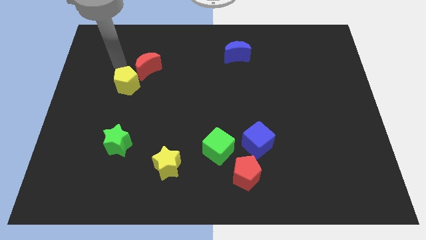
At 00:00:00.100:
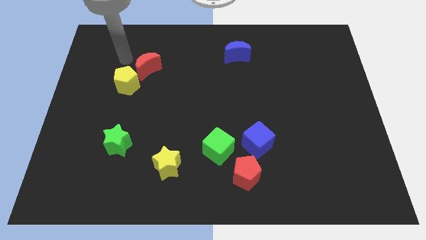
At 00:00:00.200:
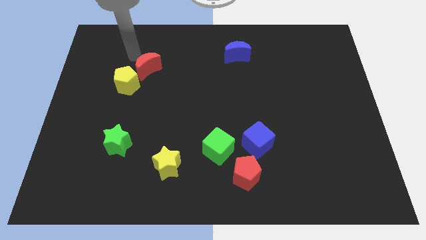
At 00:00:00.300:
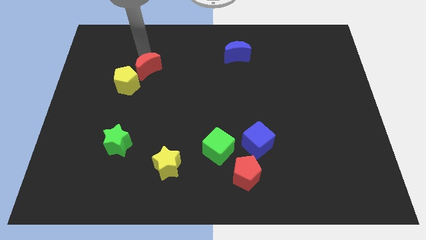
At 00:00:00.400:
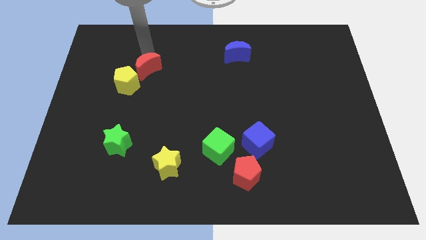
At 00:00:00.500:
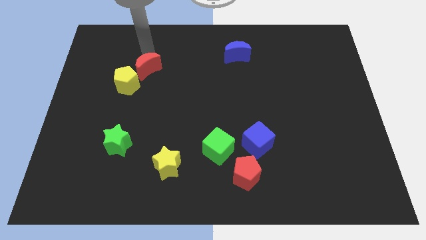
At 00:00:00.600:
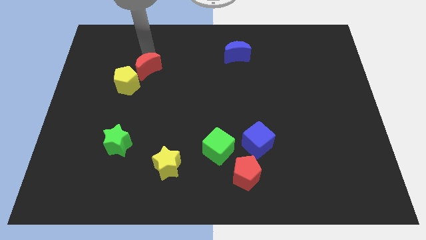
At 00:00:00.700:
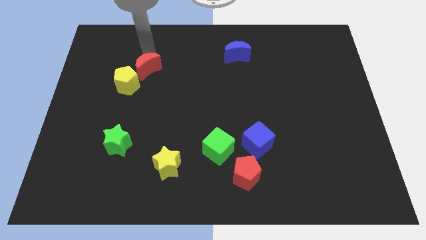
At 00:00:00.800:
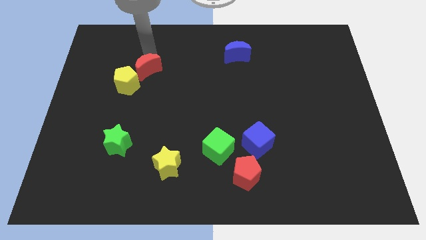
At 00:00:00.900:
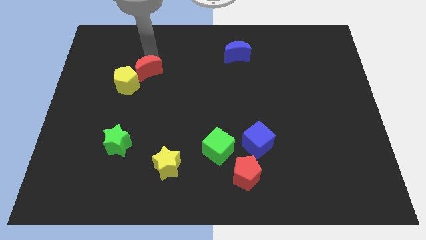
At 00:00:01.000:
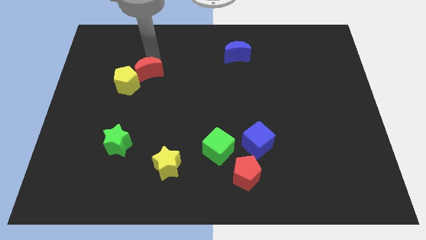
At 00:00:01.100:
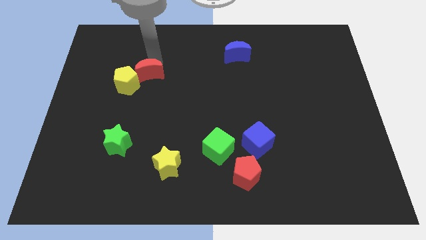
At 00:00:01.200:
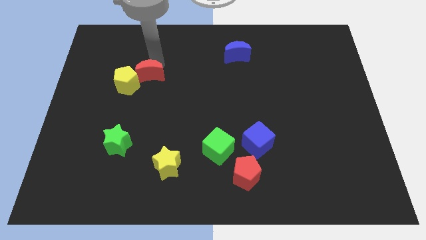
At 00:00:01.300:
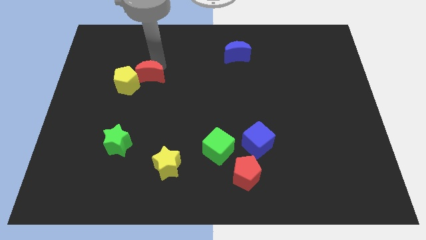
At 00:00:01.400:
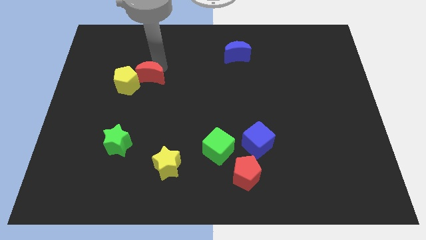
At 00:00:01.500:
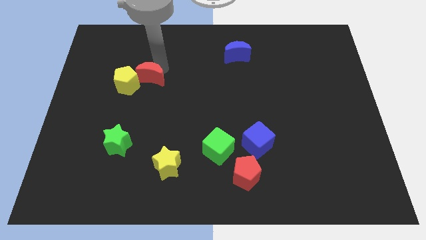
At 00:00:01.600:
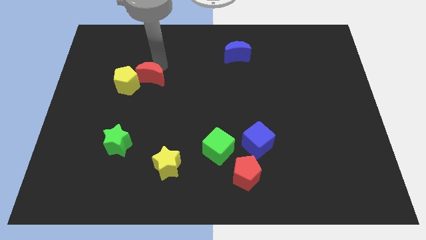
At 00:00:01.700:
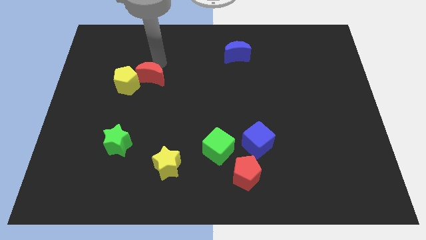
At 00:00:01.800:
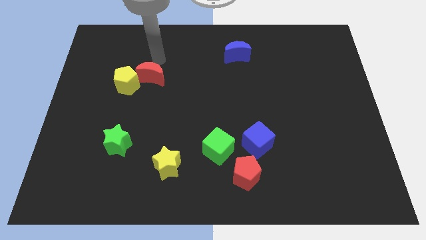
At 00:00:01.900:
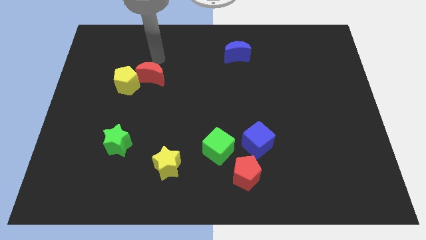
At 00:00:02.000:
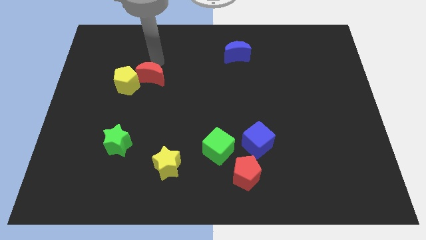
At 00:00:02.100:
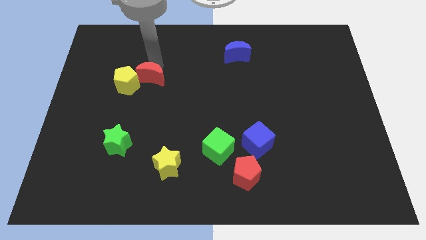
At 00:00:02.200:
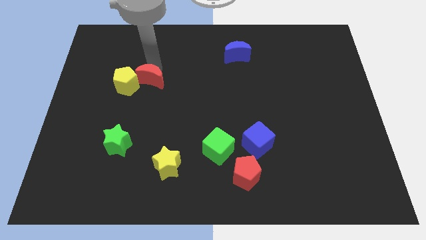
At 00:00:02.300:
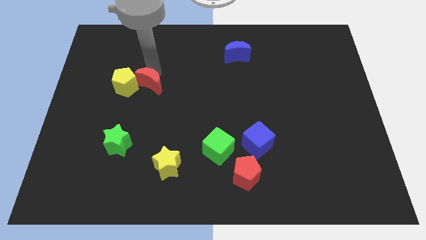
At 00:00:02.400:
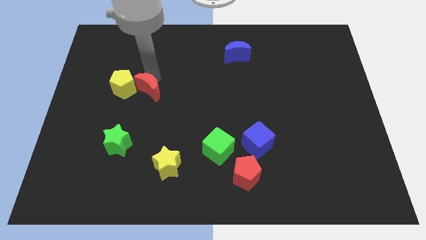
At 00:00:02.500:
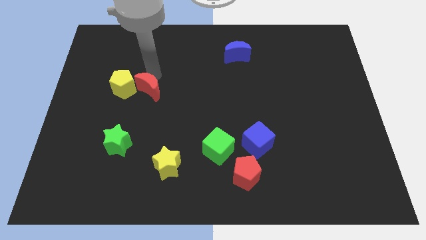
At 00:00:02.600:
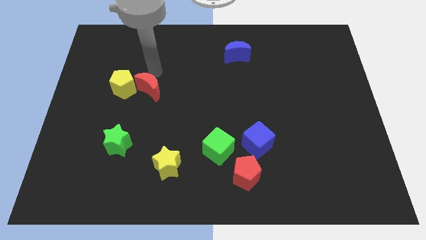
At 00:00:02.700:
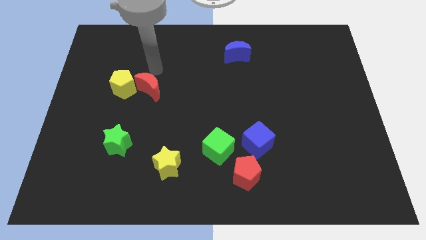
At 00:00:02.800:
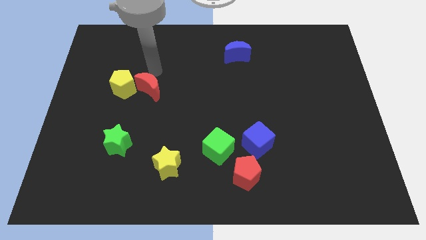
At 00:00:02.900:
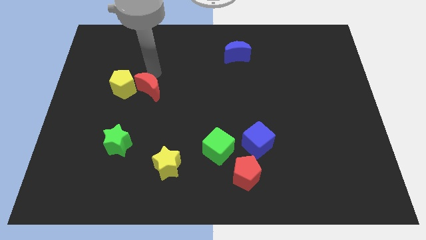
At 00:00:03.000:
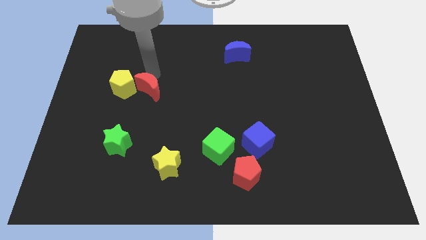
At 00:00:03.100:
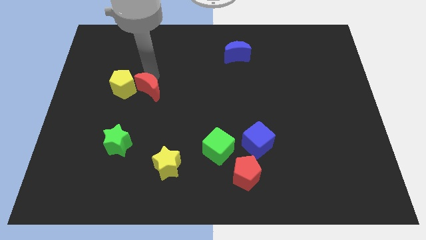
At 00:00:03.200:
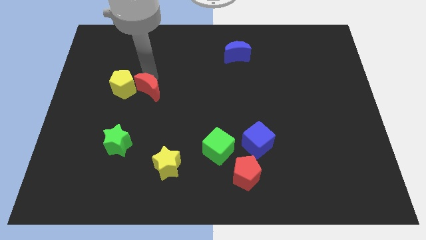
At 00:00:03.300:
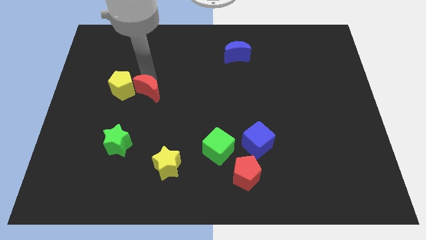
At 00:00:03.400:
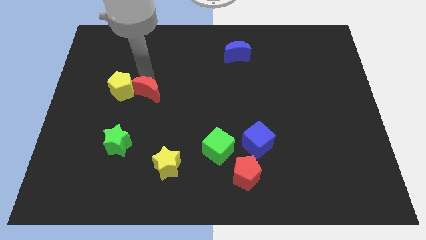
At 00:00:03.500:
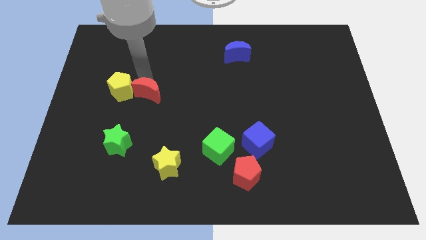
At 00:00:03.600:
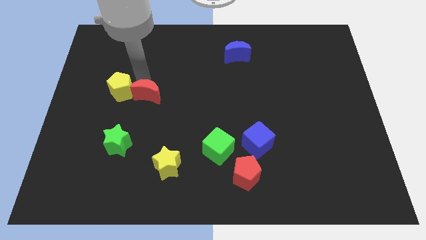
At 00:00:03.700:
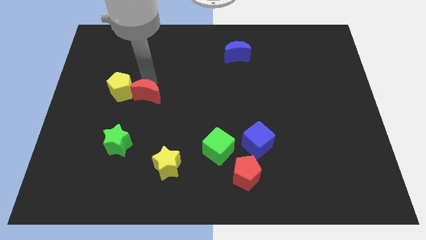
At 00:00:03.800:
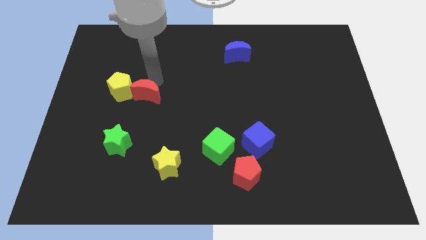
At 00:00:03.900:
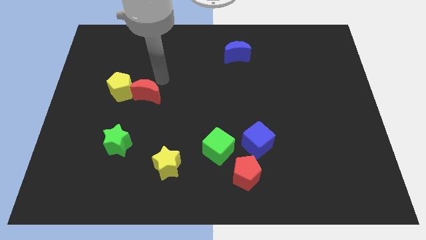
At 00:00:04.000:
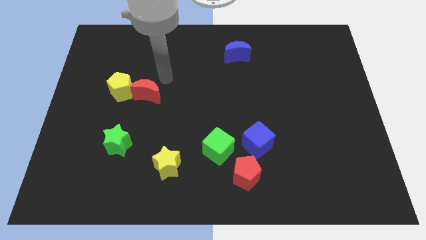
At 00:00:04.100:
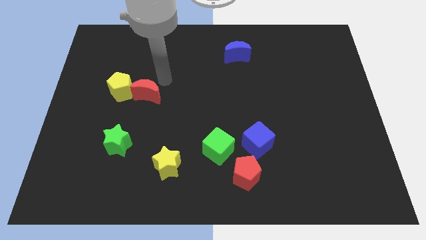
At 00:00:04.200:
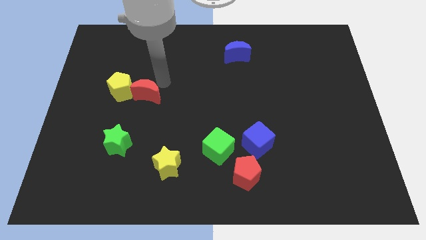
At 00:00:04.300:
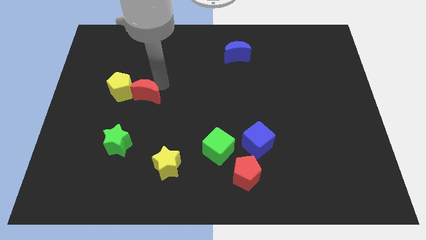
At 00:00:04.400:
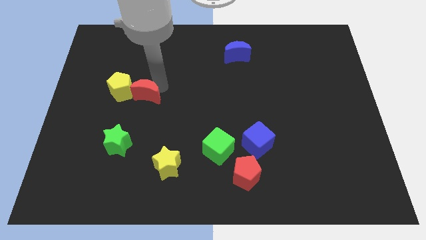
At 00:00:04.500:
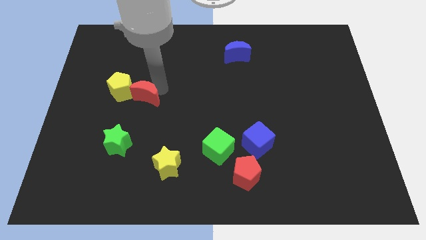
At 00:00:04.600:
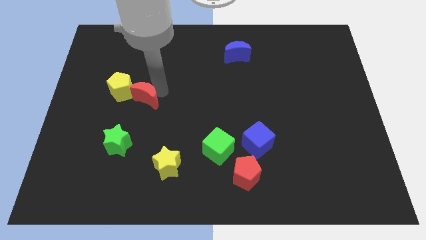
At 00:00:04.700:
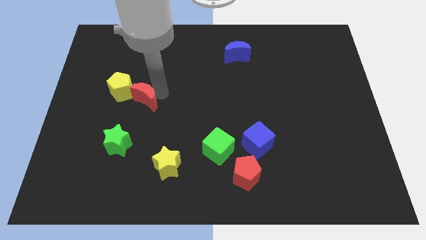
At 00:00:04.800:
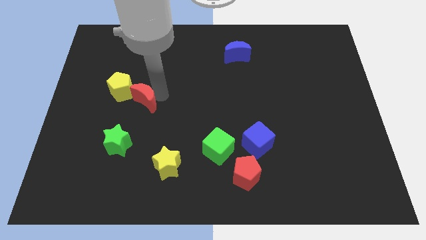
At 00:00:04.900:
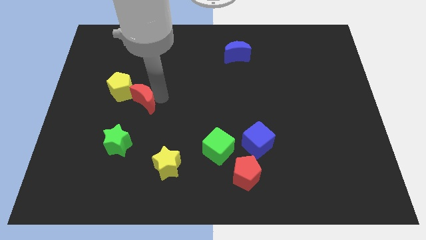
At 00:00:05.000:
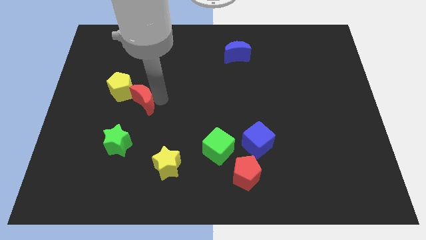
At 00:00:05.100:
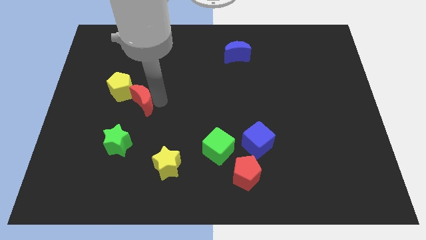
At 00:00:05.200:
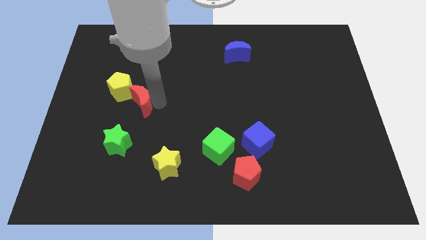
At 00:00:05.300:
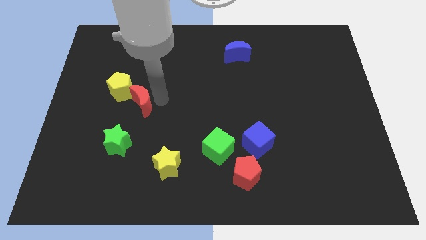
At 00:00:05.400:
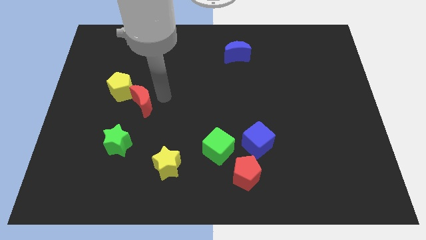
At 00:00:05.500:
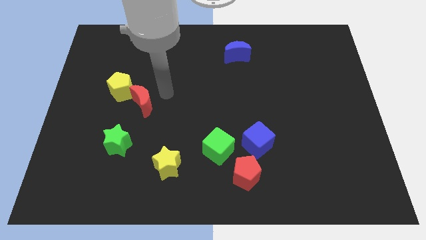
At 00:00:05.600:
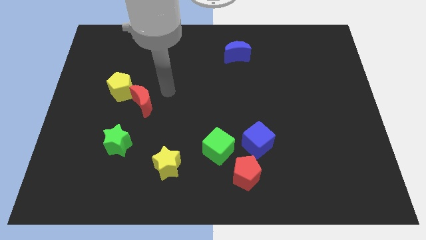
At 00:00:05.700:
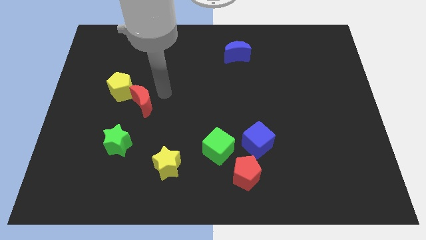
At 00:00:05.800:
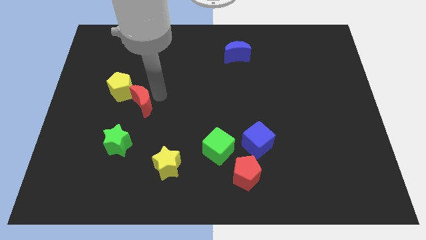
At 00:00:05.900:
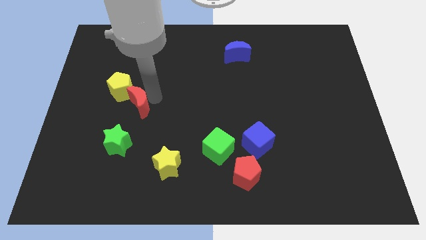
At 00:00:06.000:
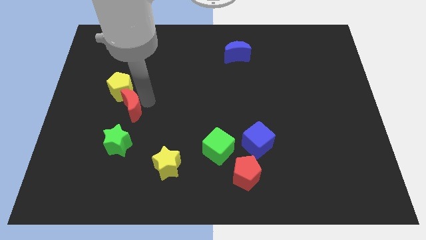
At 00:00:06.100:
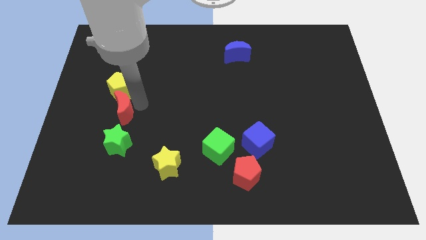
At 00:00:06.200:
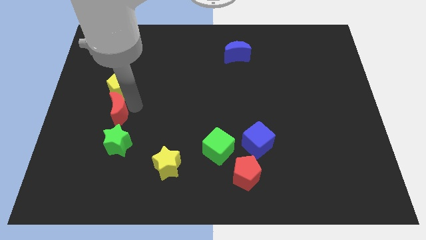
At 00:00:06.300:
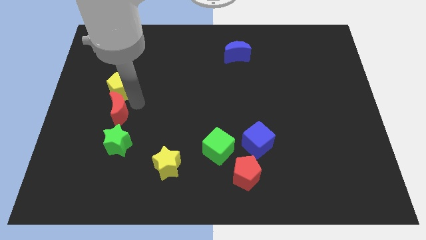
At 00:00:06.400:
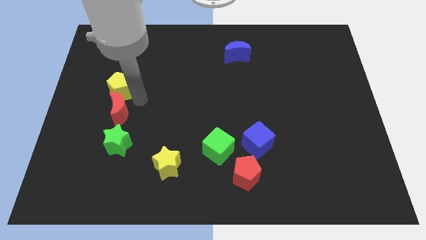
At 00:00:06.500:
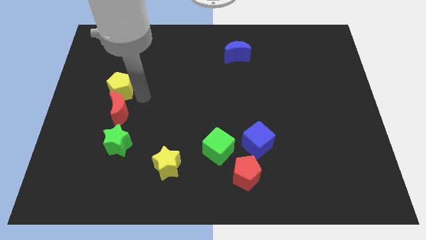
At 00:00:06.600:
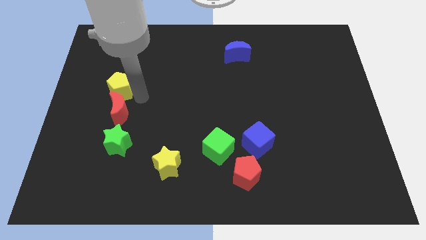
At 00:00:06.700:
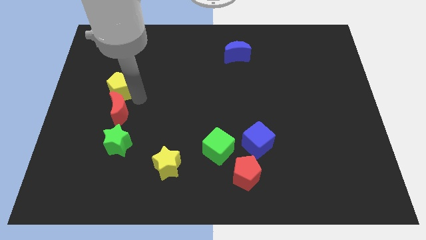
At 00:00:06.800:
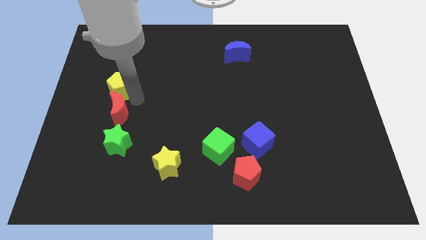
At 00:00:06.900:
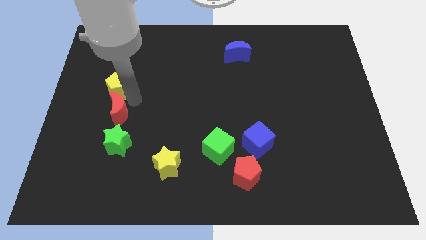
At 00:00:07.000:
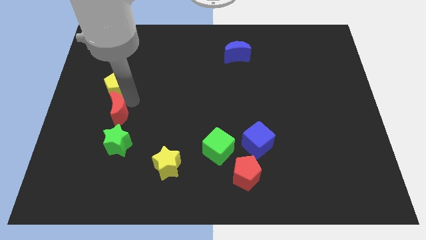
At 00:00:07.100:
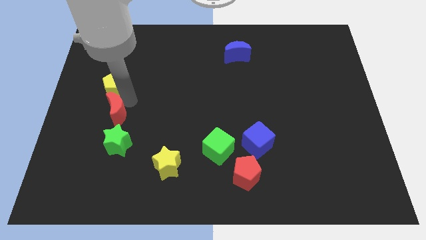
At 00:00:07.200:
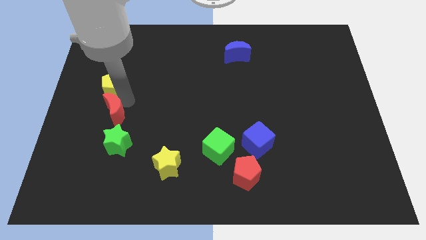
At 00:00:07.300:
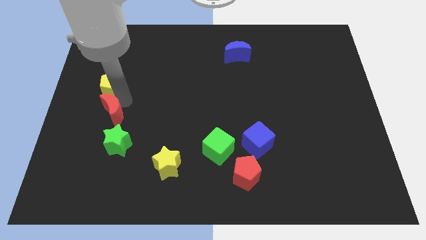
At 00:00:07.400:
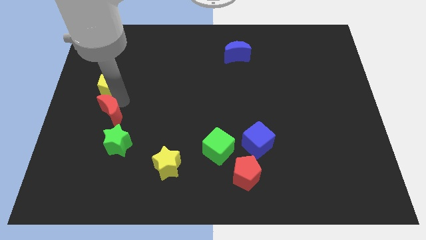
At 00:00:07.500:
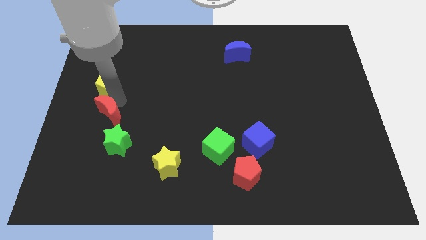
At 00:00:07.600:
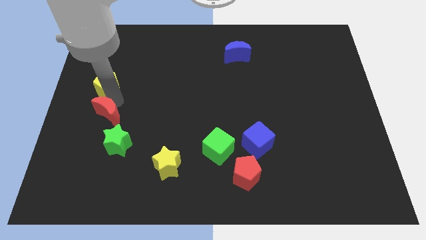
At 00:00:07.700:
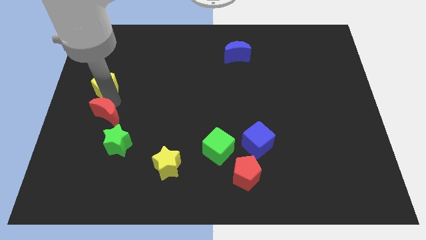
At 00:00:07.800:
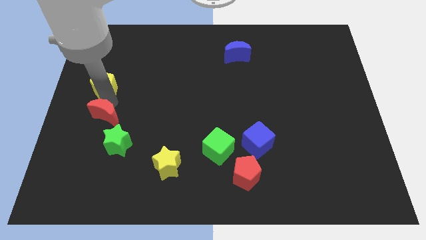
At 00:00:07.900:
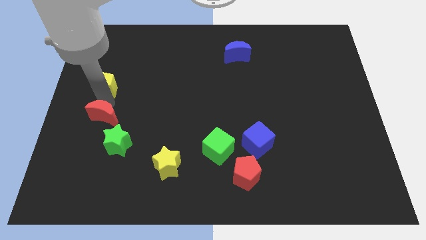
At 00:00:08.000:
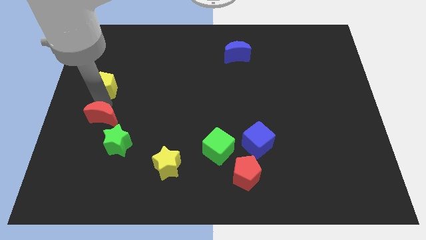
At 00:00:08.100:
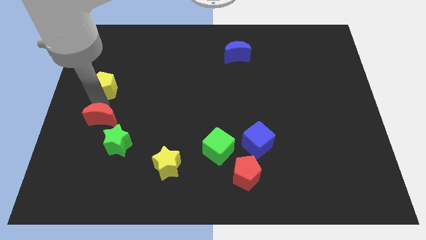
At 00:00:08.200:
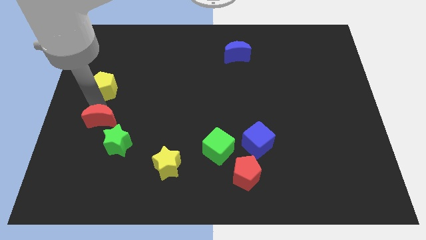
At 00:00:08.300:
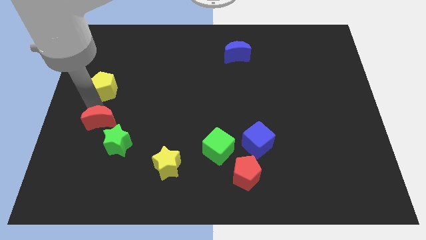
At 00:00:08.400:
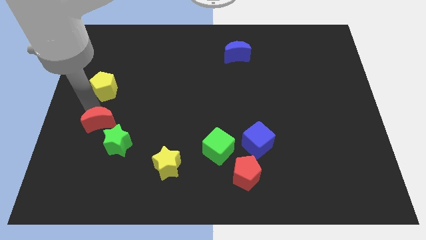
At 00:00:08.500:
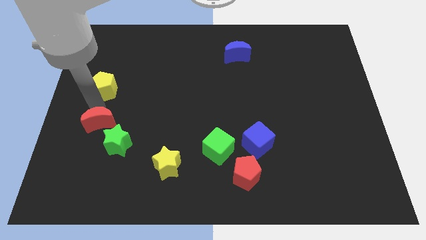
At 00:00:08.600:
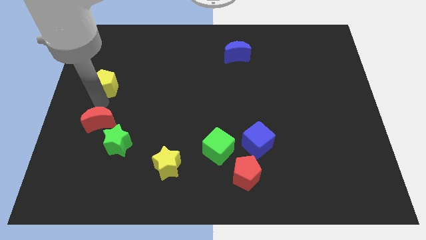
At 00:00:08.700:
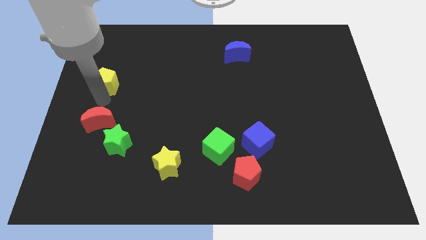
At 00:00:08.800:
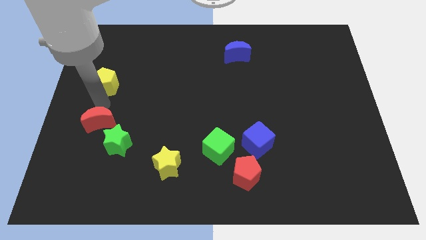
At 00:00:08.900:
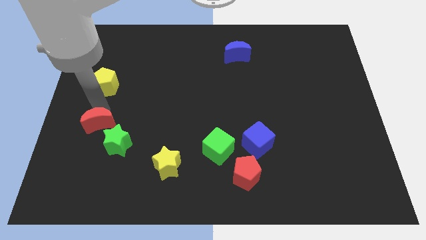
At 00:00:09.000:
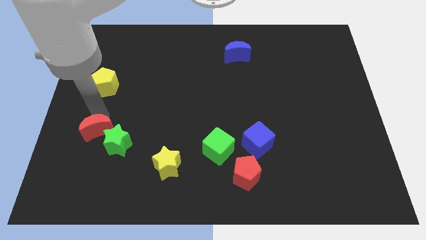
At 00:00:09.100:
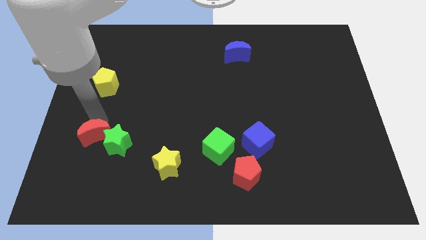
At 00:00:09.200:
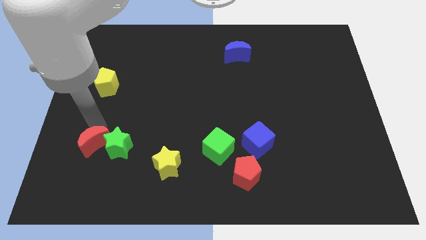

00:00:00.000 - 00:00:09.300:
move the red moon to the bottom left side of the green star
